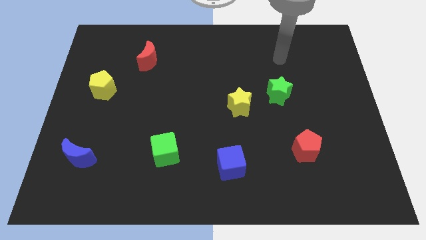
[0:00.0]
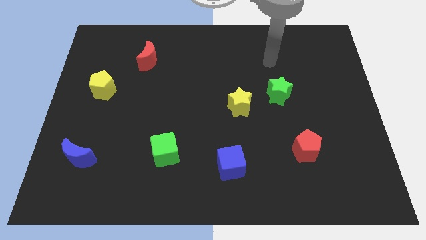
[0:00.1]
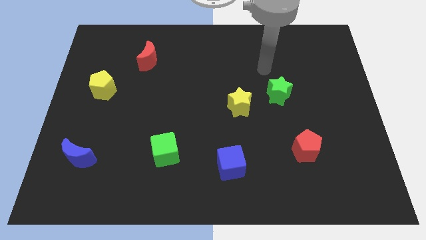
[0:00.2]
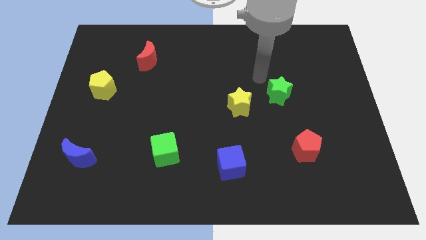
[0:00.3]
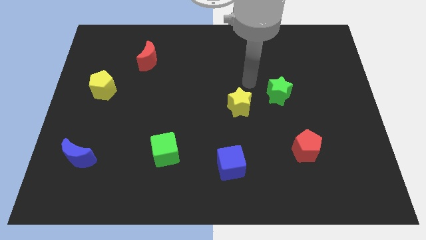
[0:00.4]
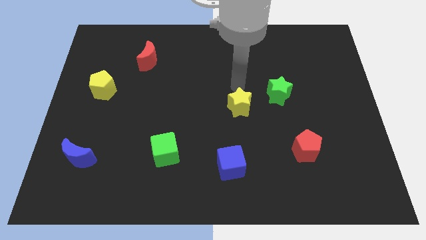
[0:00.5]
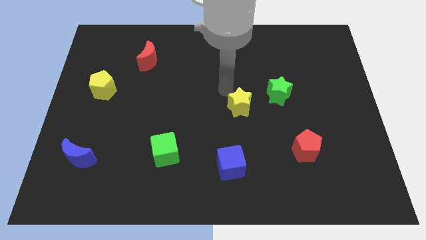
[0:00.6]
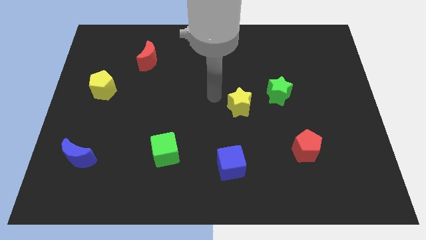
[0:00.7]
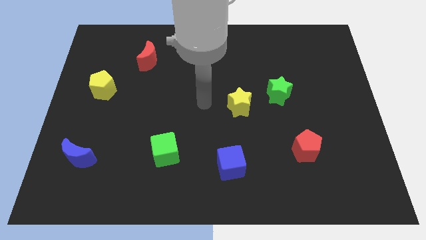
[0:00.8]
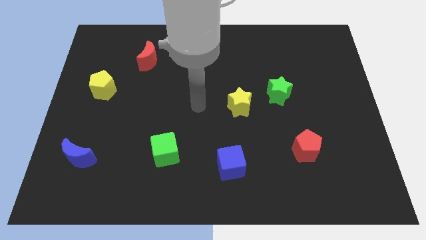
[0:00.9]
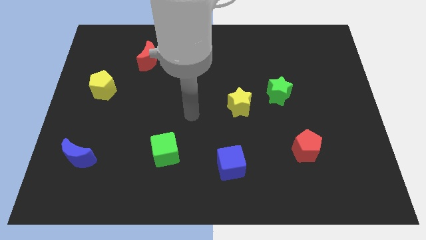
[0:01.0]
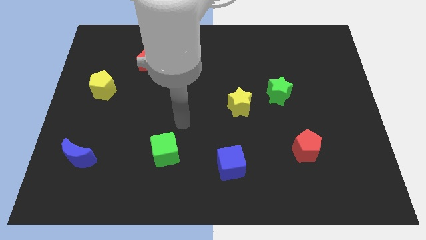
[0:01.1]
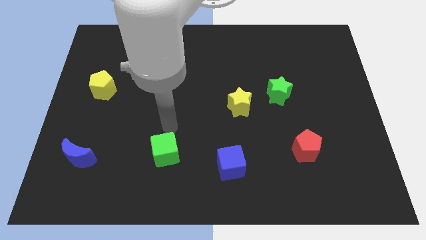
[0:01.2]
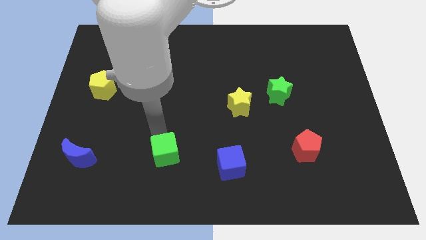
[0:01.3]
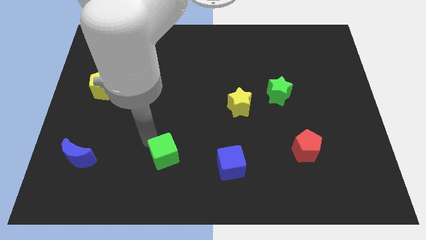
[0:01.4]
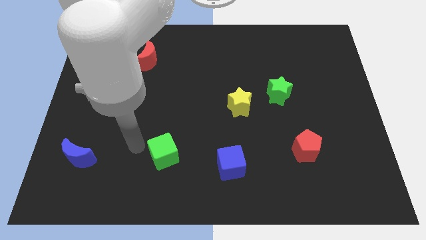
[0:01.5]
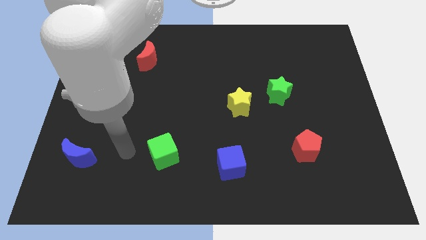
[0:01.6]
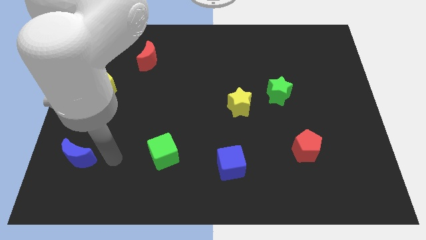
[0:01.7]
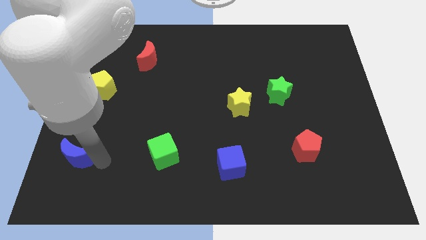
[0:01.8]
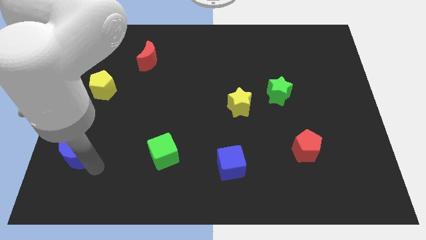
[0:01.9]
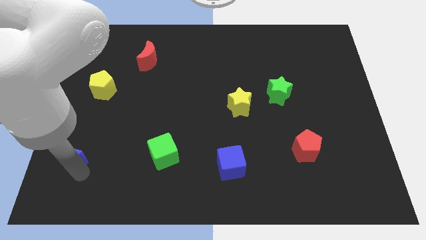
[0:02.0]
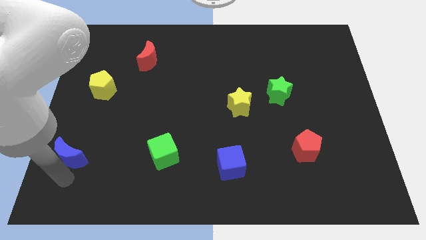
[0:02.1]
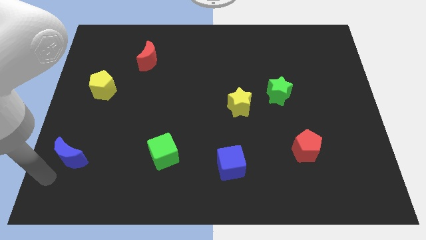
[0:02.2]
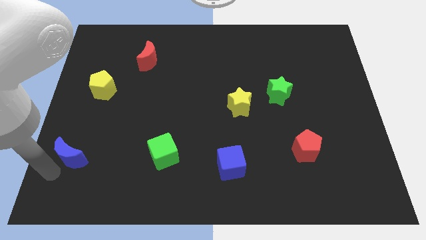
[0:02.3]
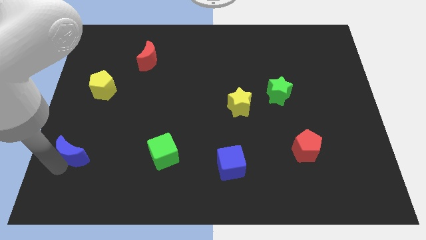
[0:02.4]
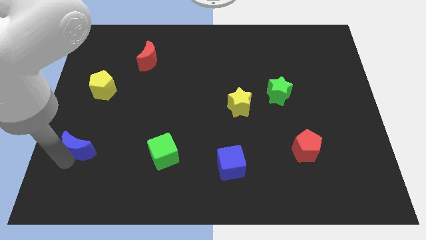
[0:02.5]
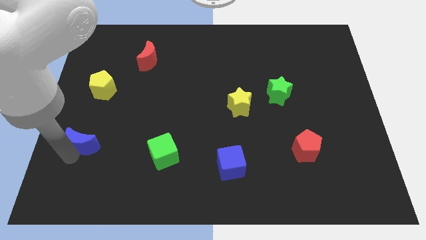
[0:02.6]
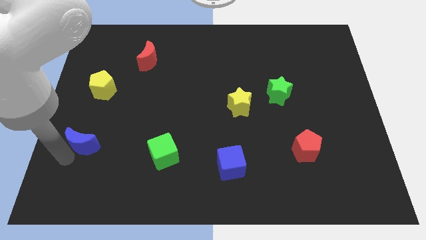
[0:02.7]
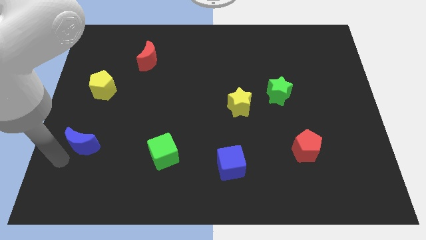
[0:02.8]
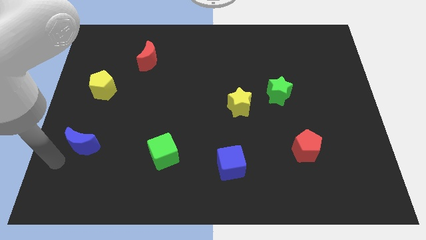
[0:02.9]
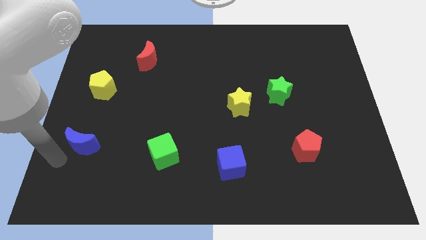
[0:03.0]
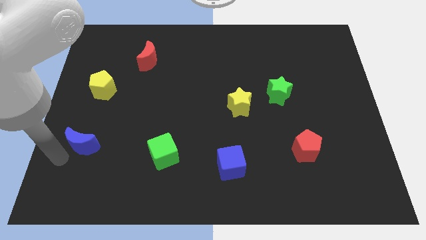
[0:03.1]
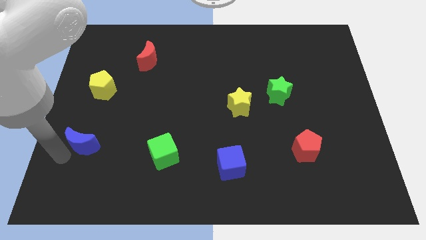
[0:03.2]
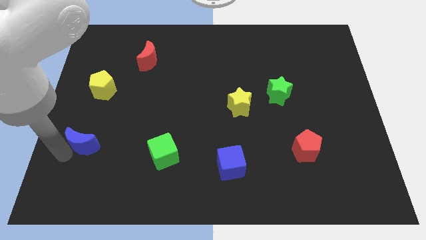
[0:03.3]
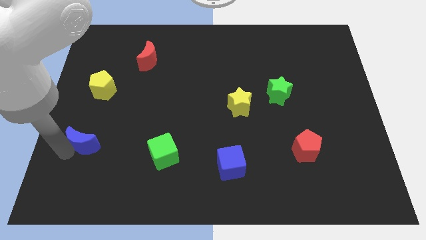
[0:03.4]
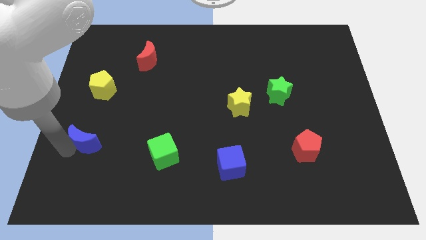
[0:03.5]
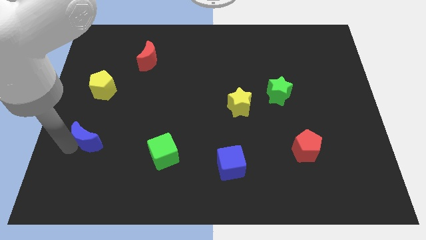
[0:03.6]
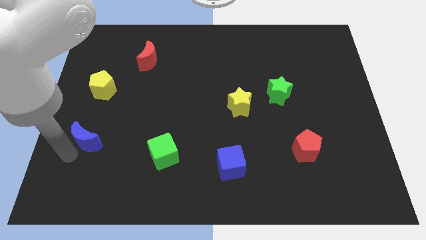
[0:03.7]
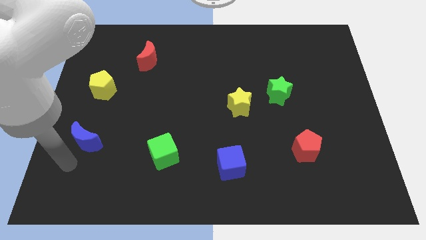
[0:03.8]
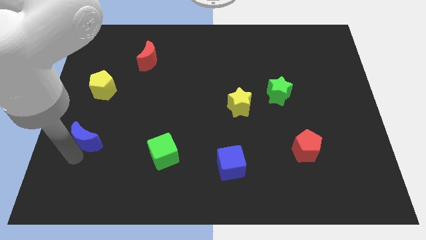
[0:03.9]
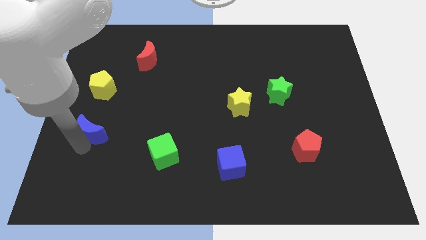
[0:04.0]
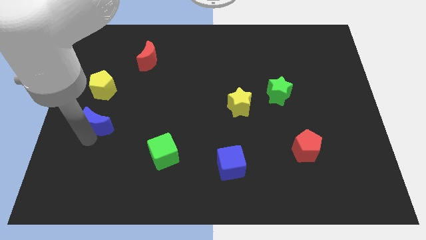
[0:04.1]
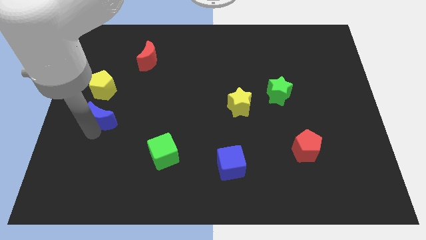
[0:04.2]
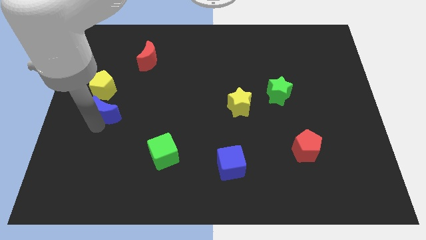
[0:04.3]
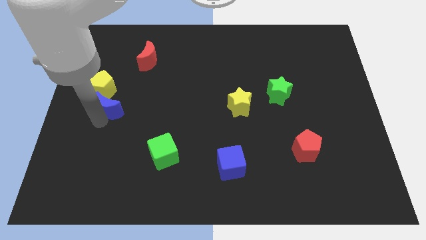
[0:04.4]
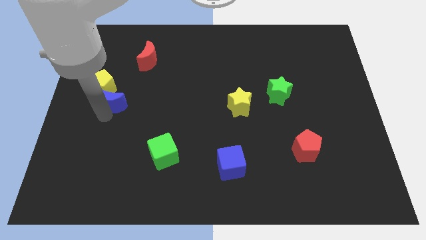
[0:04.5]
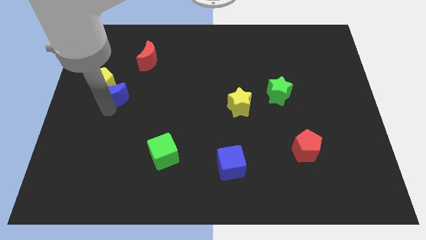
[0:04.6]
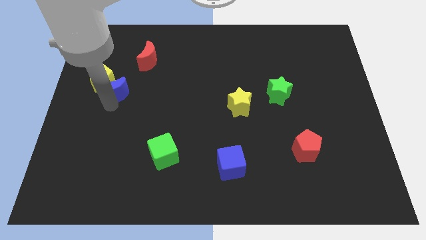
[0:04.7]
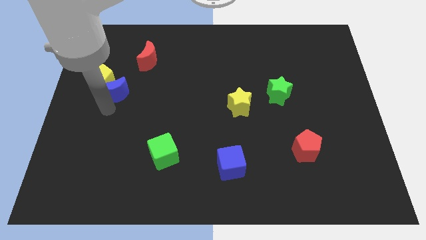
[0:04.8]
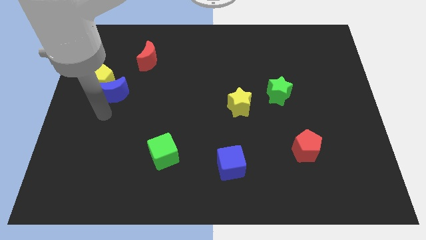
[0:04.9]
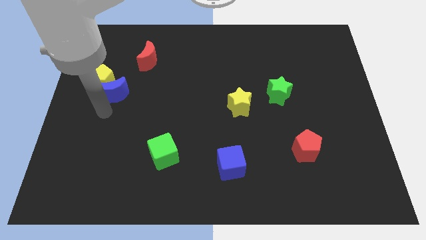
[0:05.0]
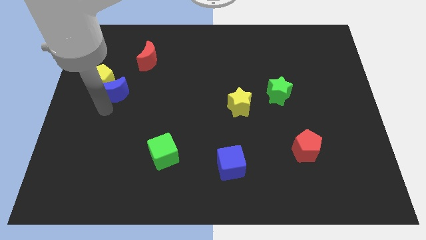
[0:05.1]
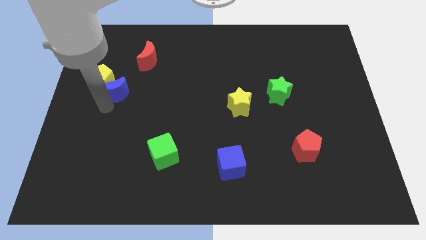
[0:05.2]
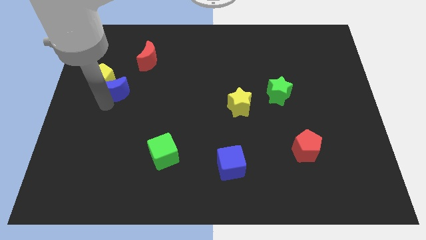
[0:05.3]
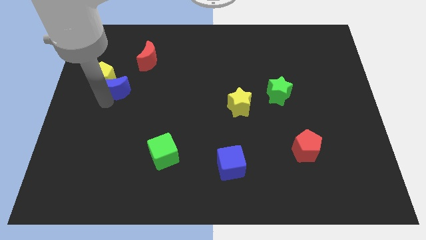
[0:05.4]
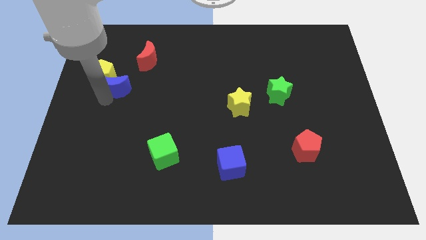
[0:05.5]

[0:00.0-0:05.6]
slide the blue moon to the bottom left side of the red moon
